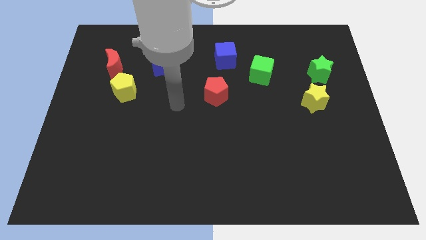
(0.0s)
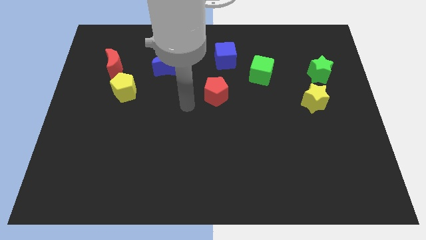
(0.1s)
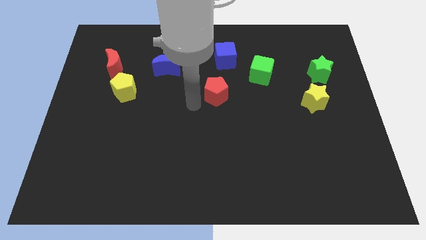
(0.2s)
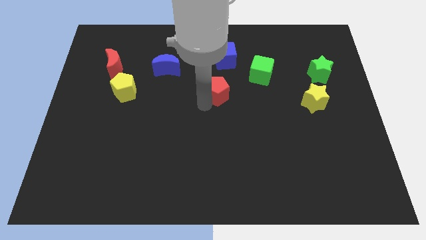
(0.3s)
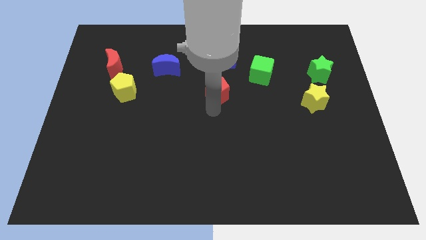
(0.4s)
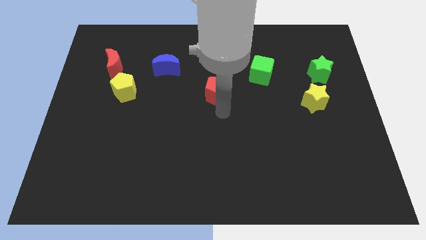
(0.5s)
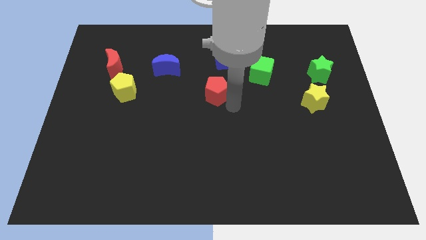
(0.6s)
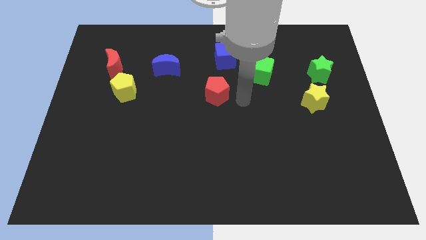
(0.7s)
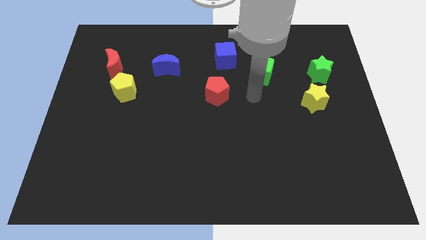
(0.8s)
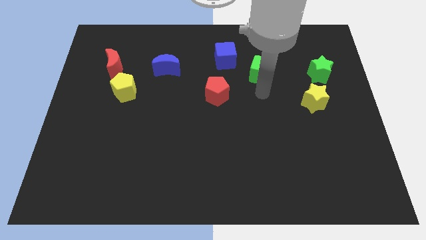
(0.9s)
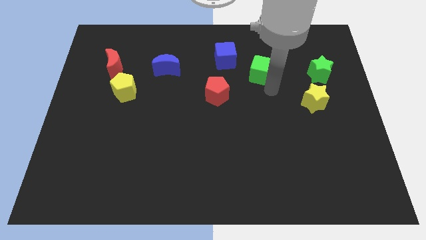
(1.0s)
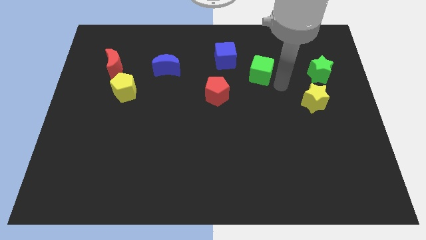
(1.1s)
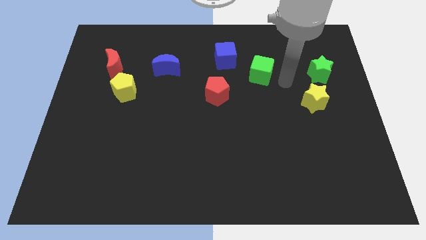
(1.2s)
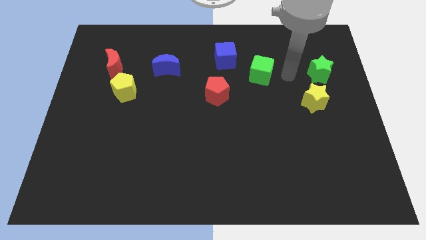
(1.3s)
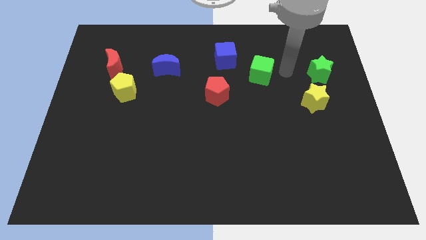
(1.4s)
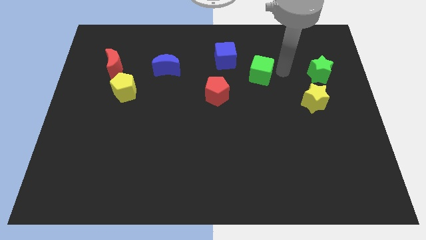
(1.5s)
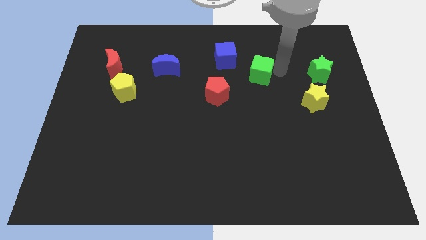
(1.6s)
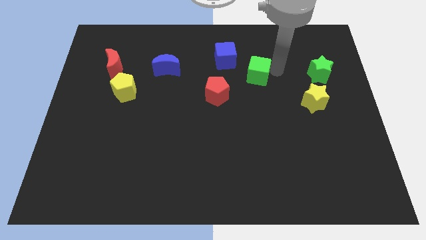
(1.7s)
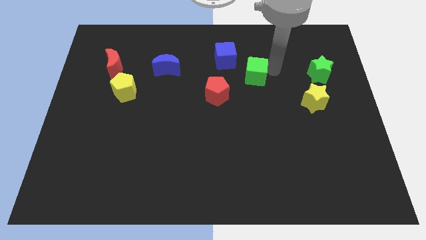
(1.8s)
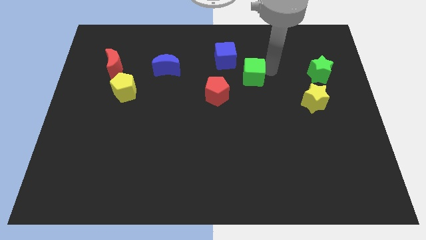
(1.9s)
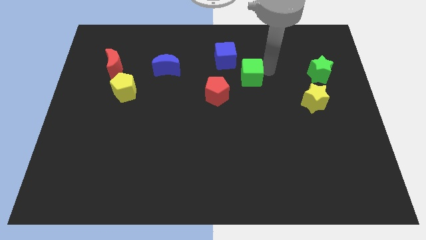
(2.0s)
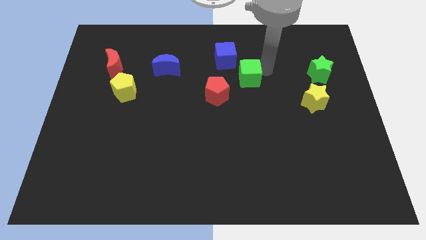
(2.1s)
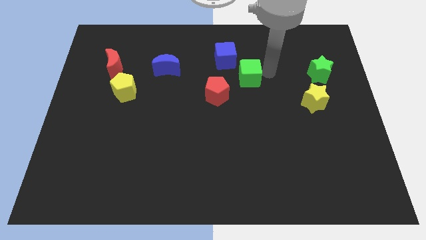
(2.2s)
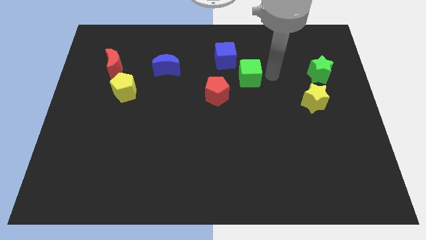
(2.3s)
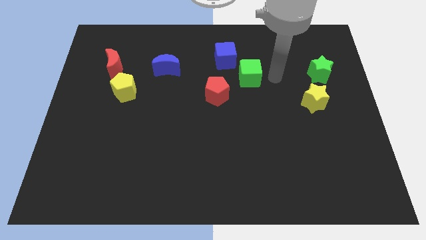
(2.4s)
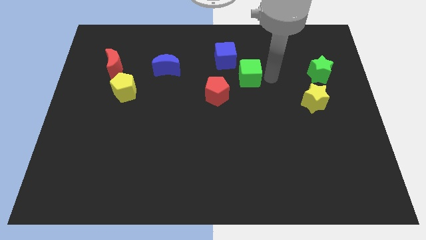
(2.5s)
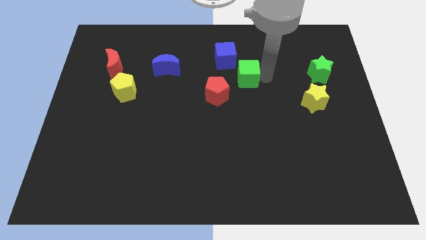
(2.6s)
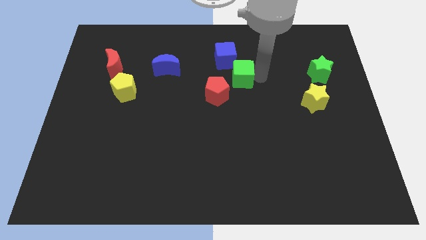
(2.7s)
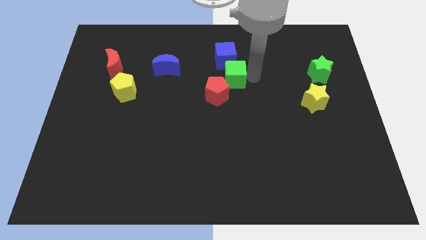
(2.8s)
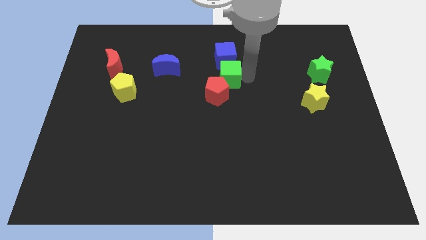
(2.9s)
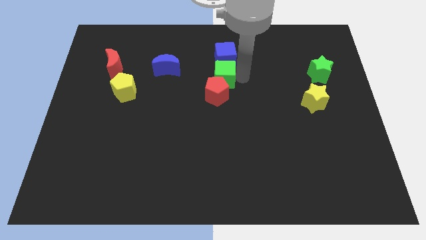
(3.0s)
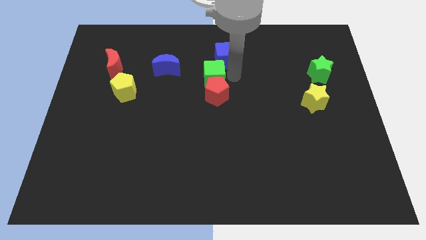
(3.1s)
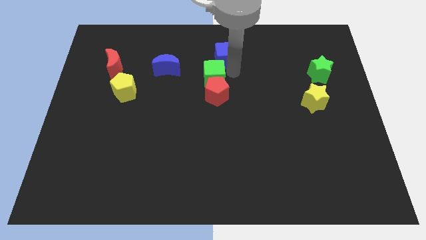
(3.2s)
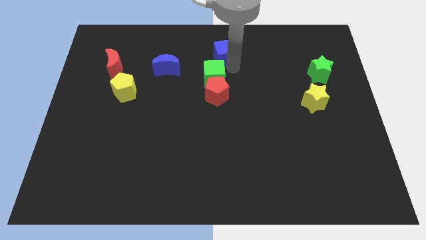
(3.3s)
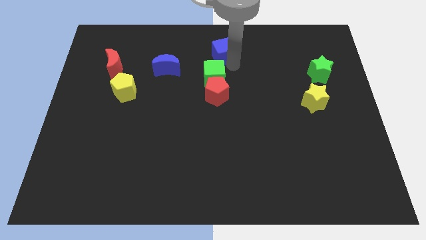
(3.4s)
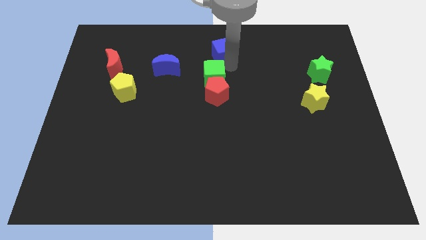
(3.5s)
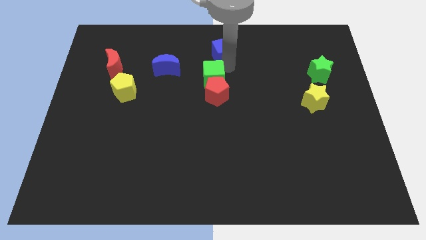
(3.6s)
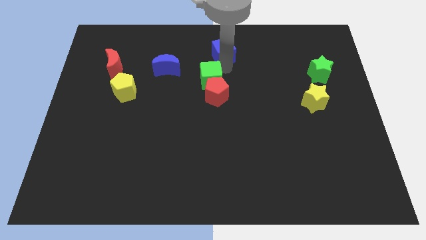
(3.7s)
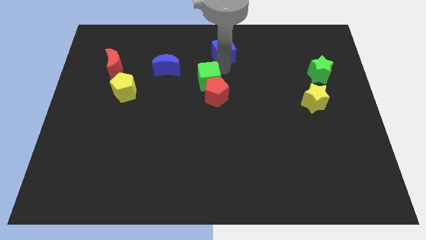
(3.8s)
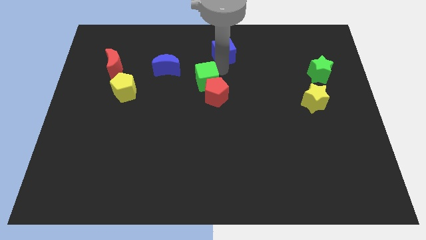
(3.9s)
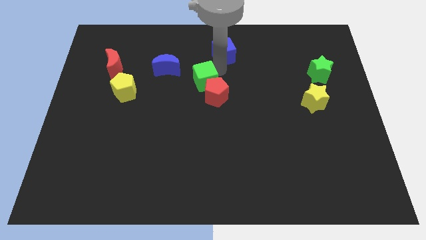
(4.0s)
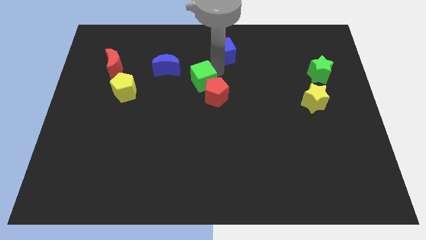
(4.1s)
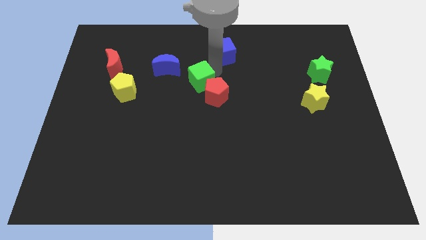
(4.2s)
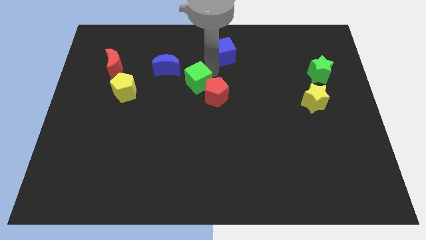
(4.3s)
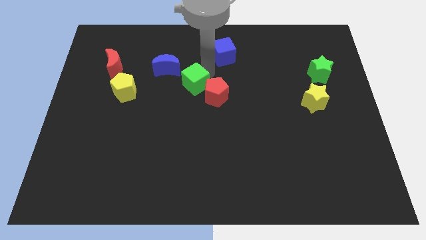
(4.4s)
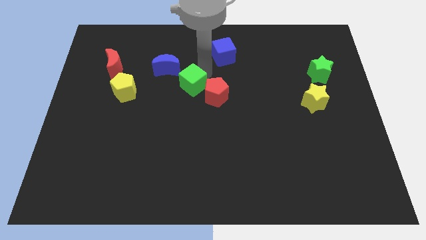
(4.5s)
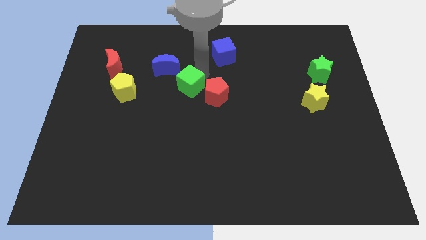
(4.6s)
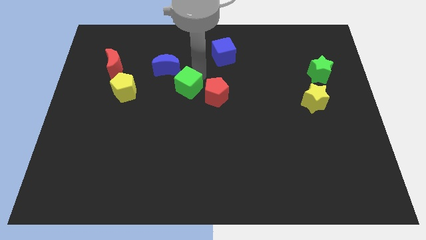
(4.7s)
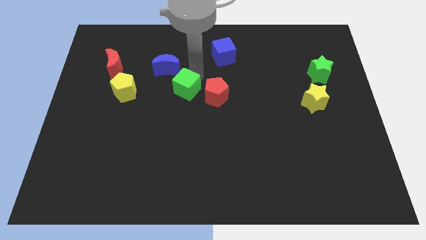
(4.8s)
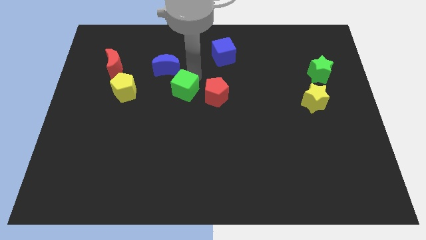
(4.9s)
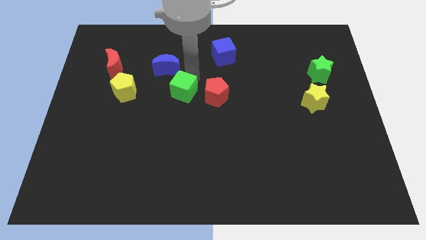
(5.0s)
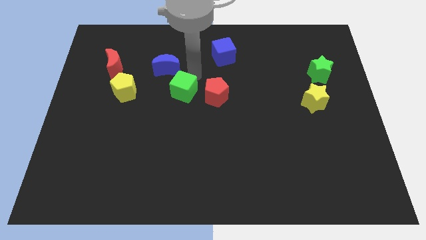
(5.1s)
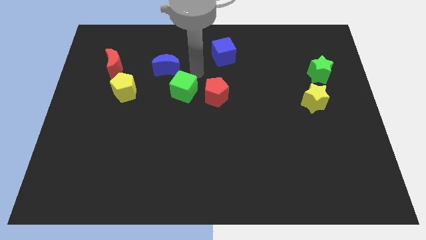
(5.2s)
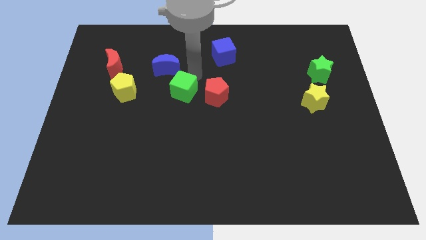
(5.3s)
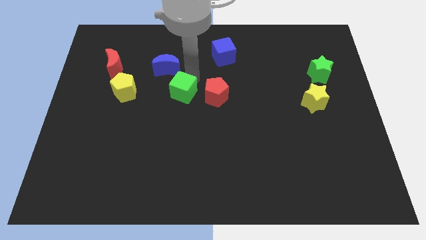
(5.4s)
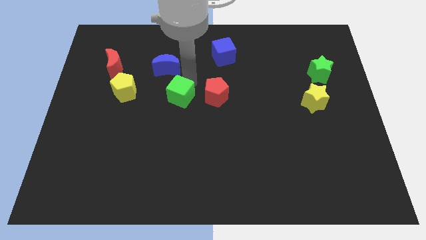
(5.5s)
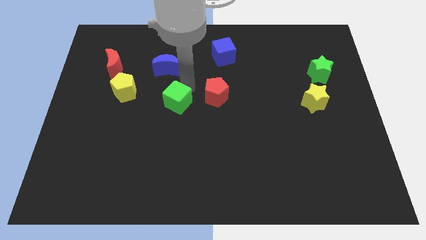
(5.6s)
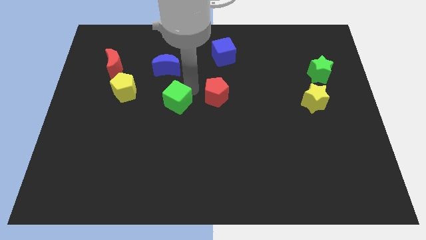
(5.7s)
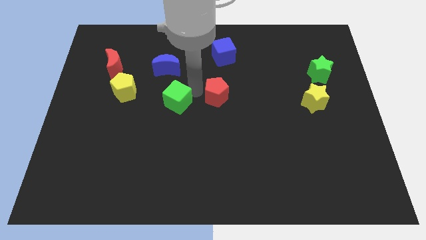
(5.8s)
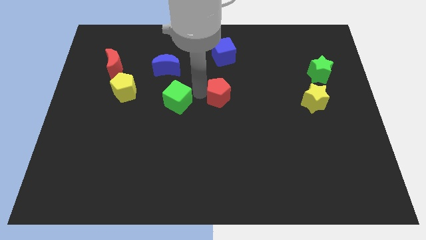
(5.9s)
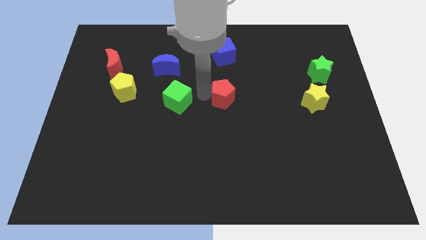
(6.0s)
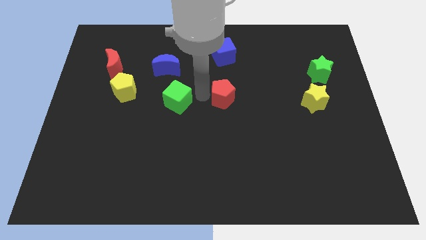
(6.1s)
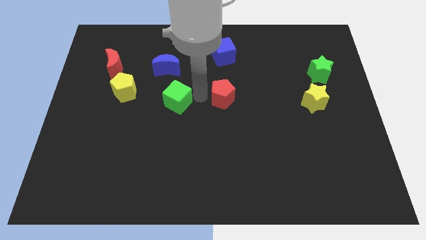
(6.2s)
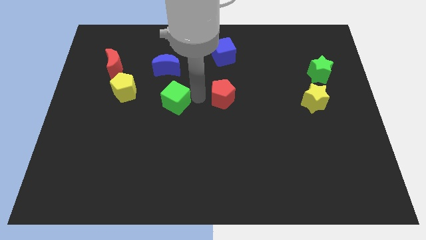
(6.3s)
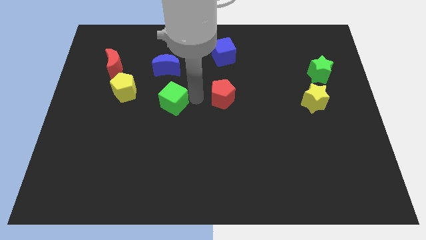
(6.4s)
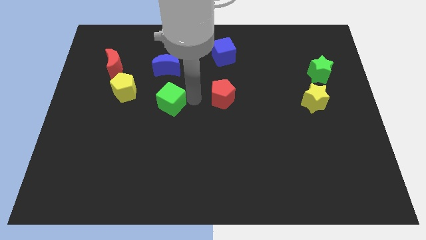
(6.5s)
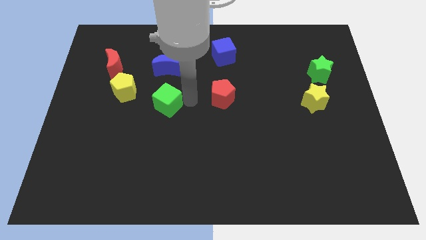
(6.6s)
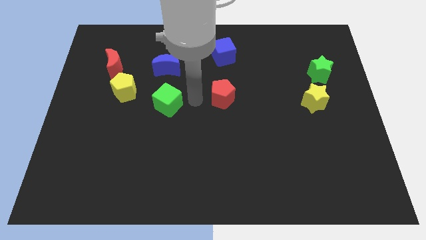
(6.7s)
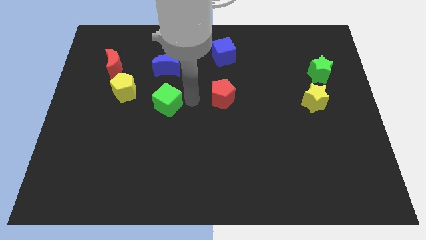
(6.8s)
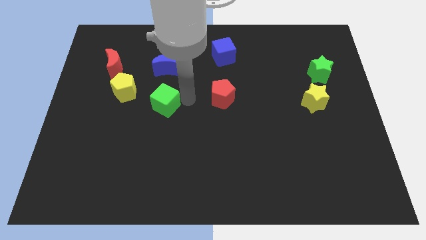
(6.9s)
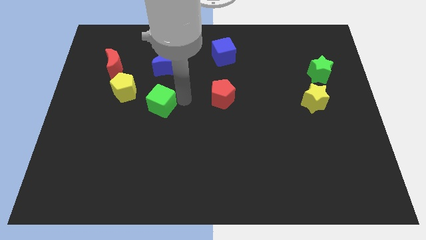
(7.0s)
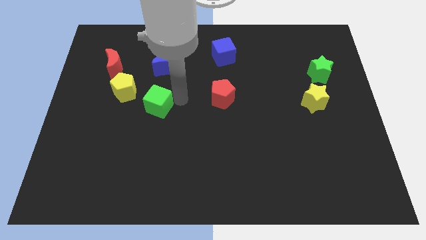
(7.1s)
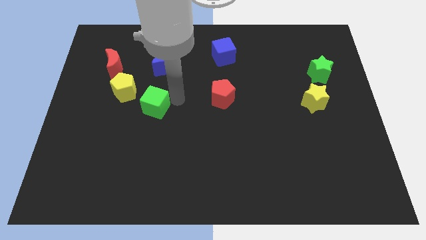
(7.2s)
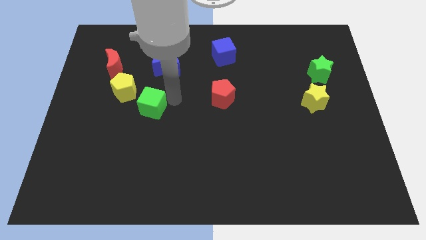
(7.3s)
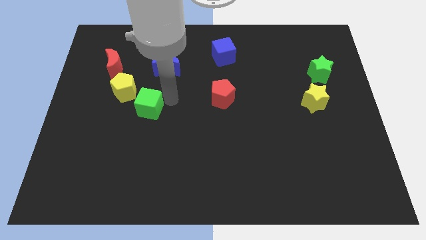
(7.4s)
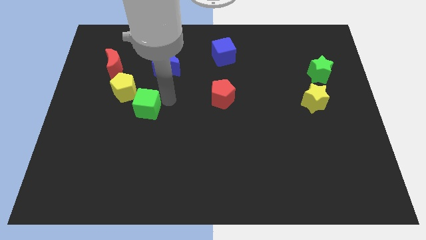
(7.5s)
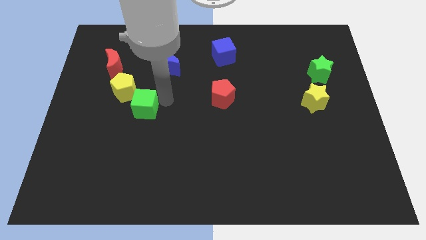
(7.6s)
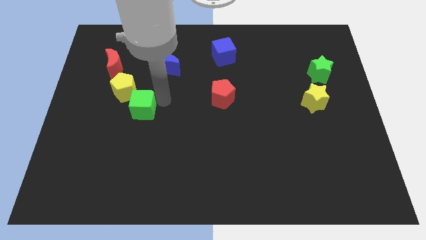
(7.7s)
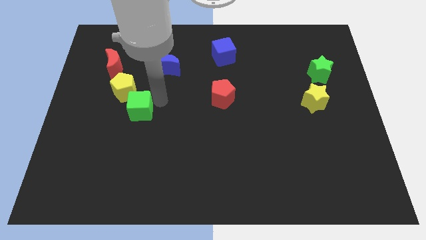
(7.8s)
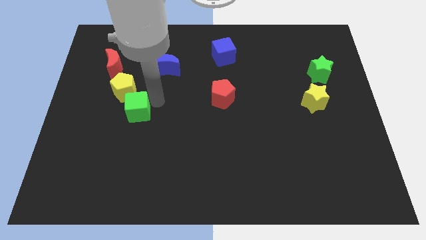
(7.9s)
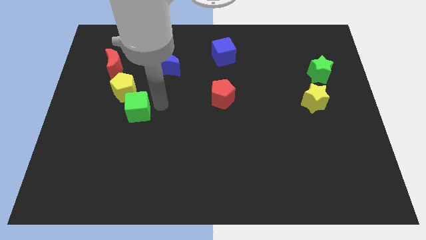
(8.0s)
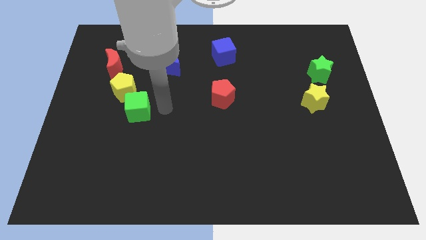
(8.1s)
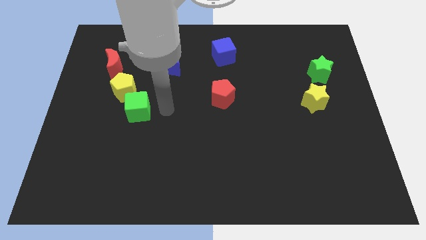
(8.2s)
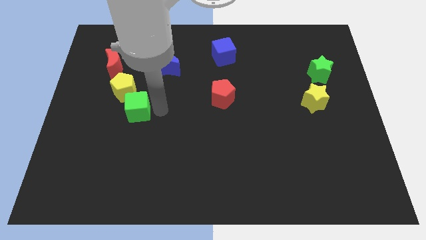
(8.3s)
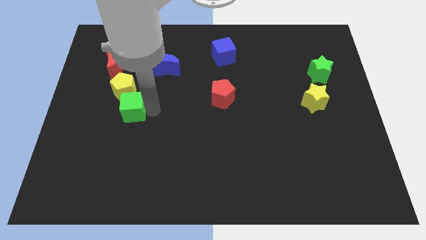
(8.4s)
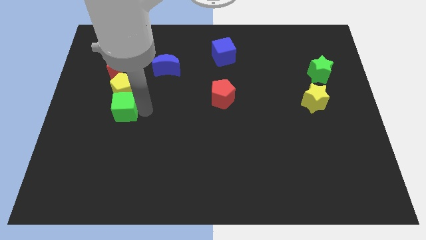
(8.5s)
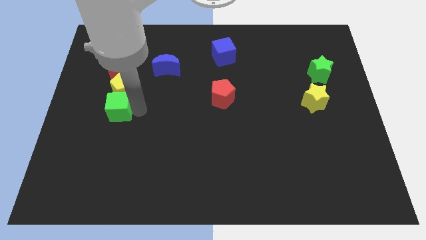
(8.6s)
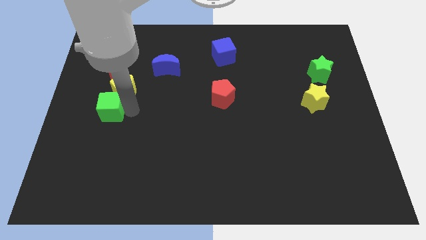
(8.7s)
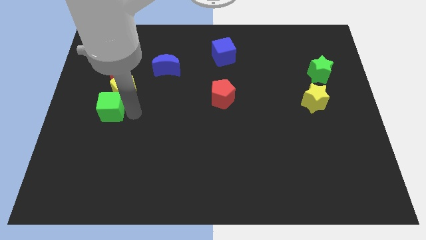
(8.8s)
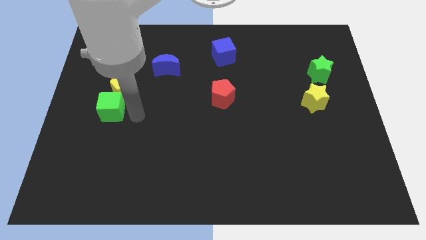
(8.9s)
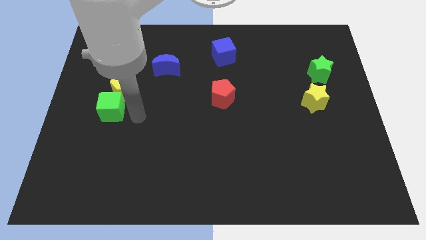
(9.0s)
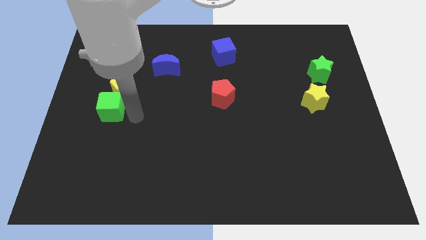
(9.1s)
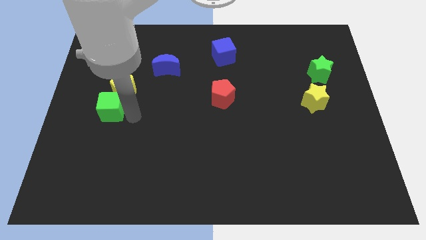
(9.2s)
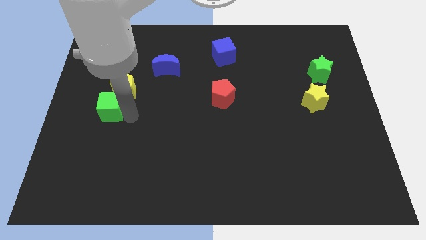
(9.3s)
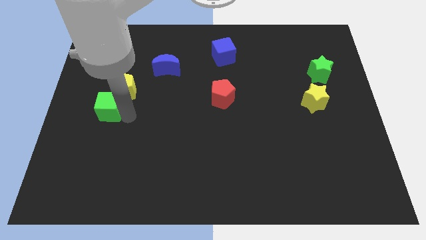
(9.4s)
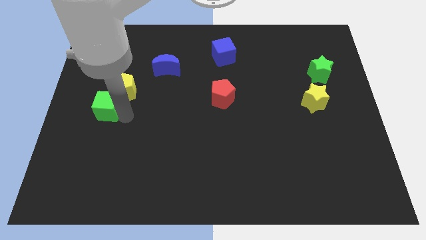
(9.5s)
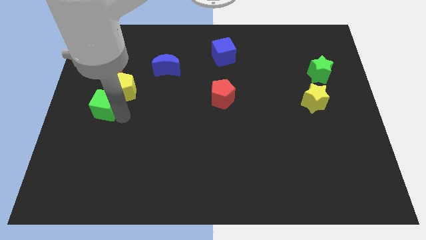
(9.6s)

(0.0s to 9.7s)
slide the green cube to the left side
